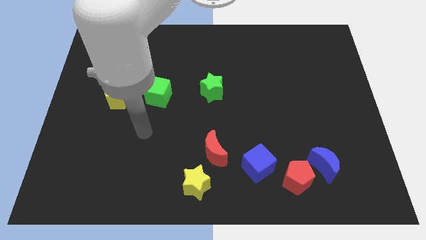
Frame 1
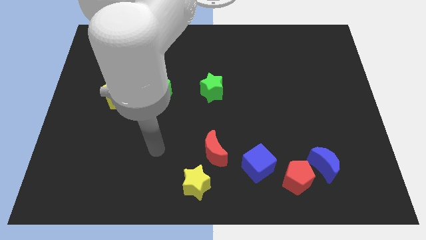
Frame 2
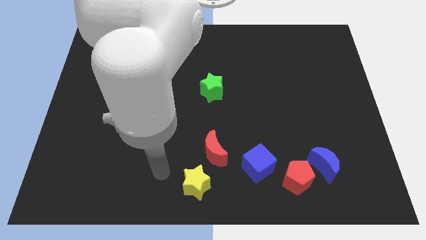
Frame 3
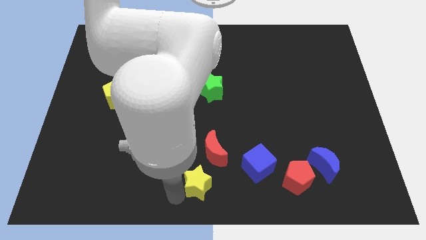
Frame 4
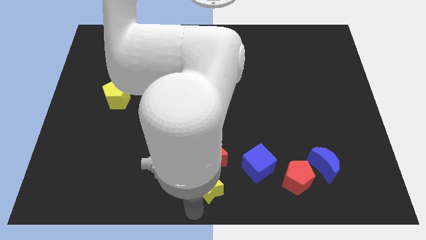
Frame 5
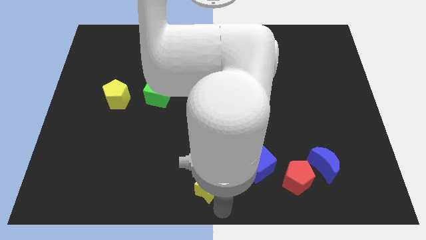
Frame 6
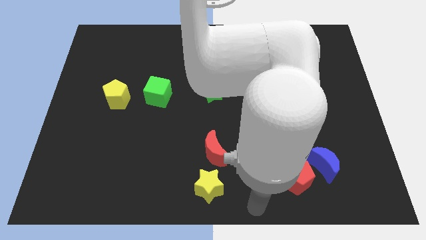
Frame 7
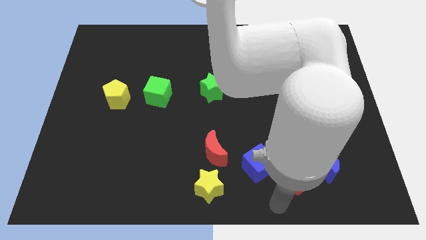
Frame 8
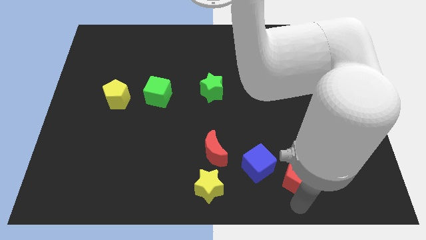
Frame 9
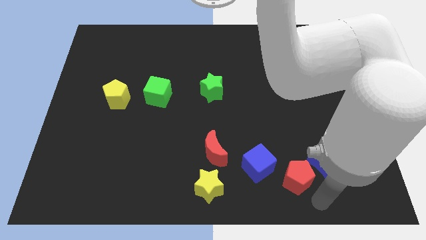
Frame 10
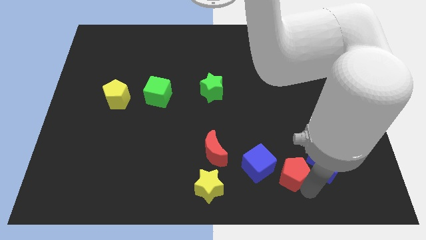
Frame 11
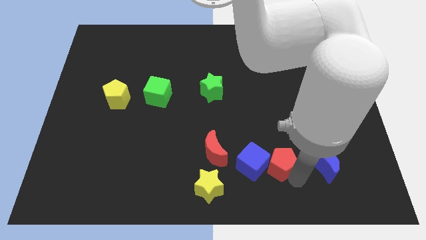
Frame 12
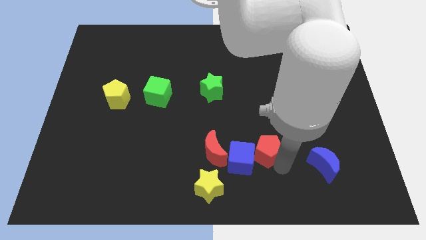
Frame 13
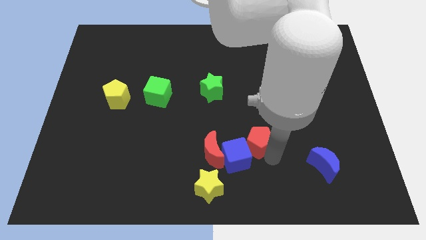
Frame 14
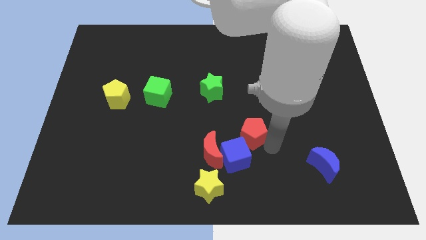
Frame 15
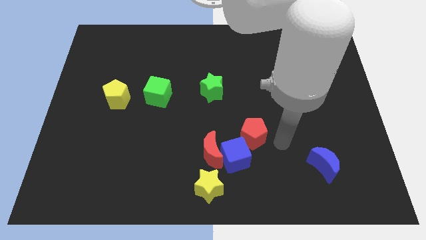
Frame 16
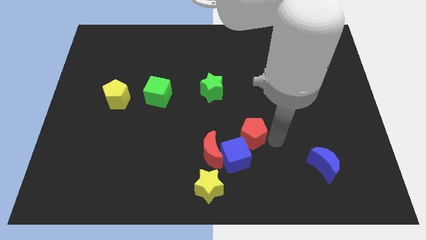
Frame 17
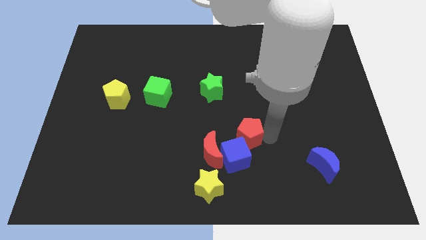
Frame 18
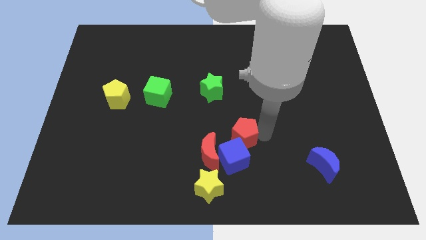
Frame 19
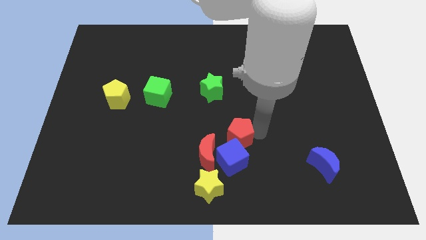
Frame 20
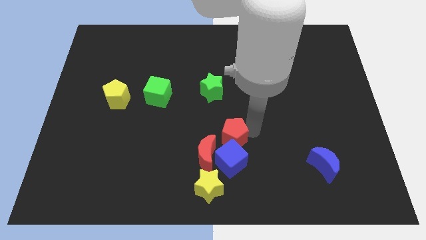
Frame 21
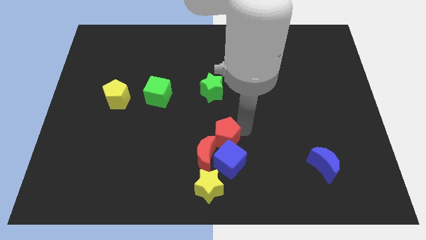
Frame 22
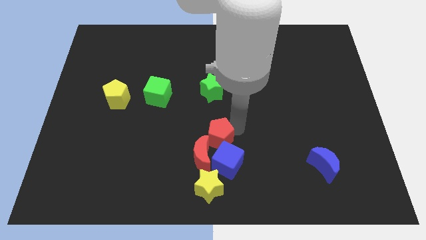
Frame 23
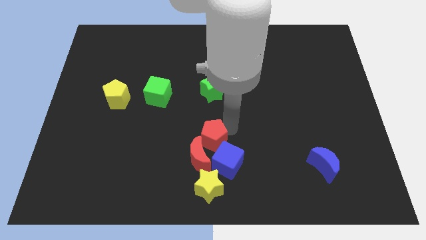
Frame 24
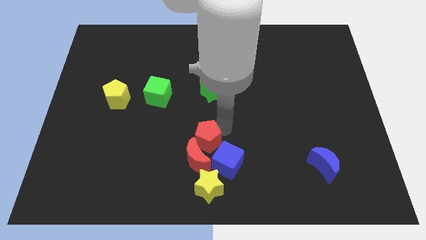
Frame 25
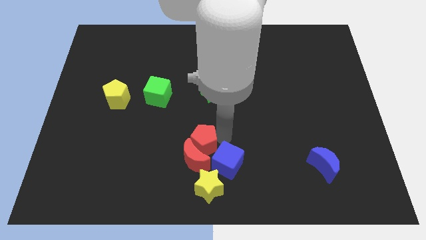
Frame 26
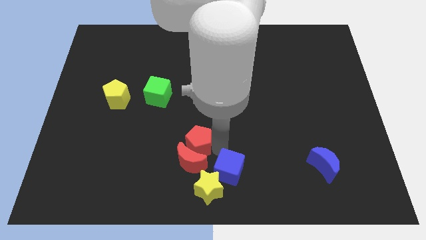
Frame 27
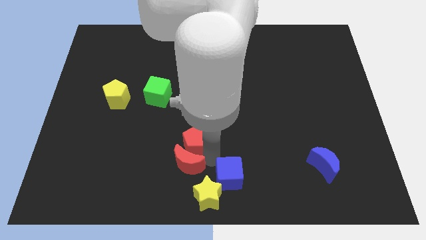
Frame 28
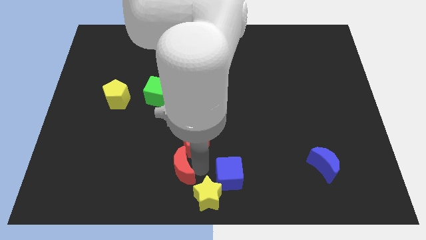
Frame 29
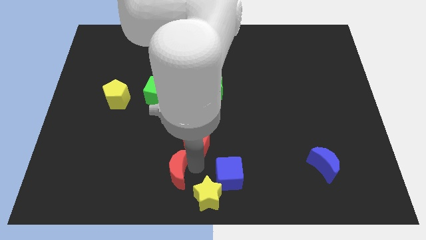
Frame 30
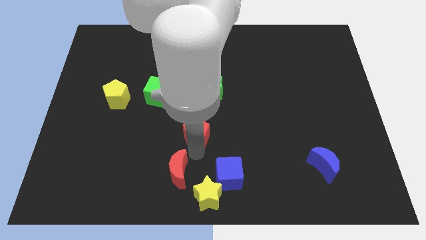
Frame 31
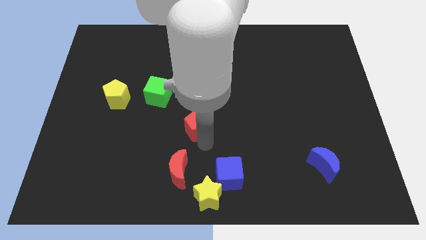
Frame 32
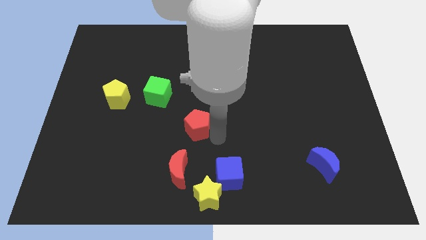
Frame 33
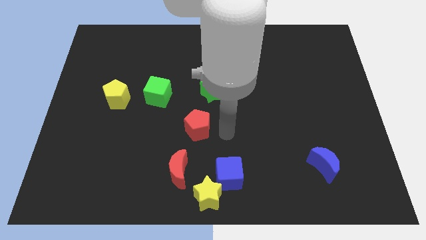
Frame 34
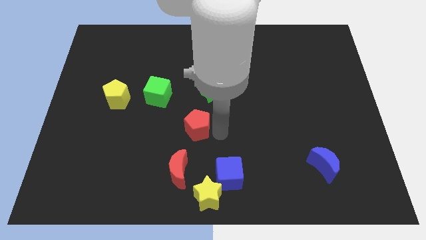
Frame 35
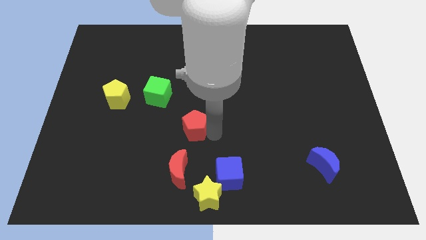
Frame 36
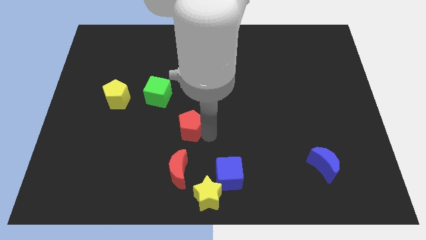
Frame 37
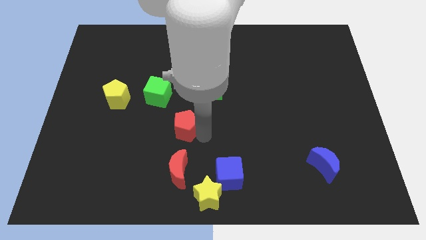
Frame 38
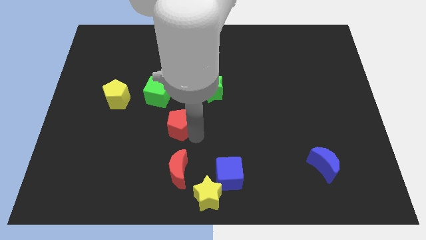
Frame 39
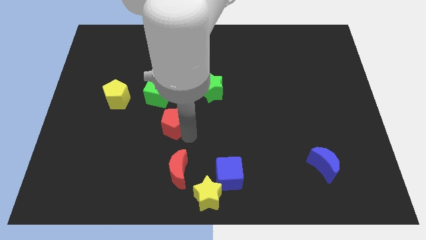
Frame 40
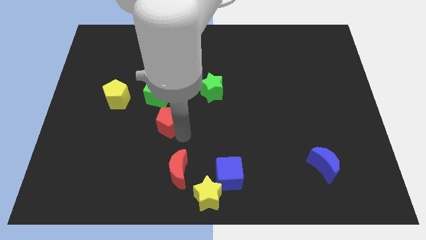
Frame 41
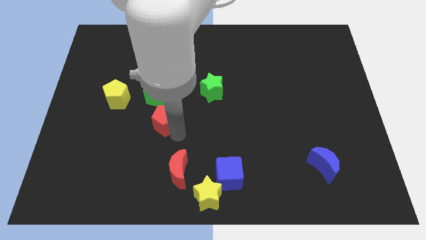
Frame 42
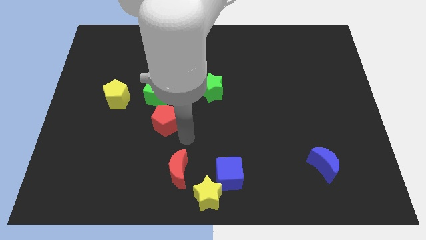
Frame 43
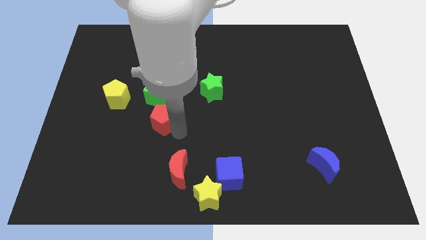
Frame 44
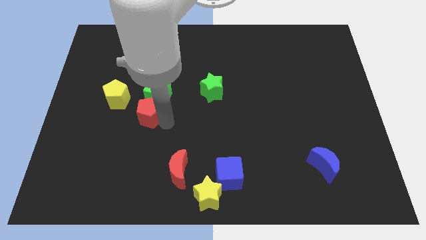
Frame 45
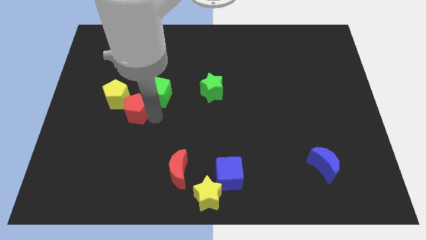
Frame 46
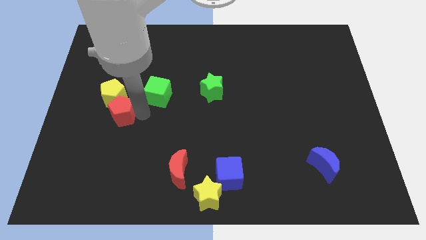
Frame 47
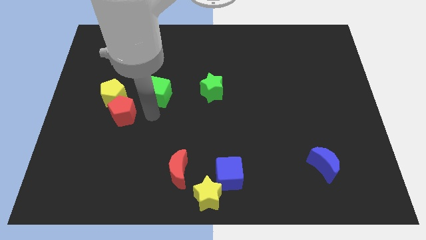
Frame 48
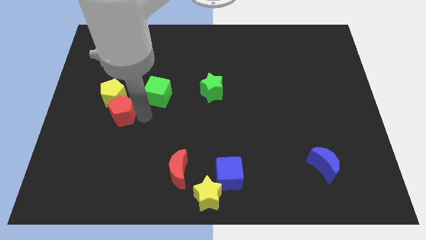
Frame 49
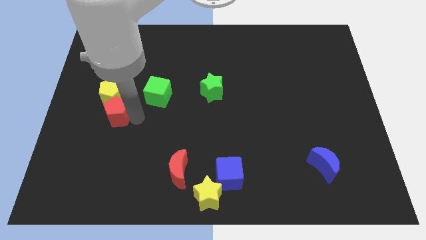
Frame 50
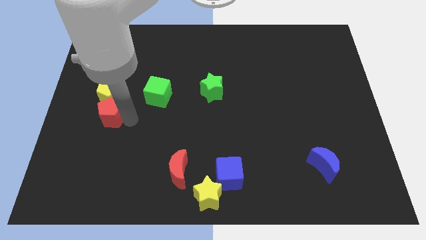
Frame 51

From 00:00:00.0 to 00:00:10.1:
slide the red pentagon to the bottom left of the yellow pentagon

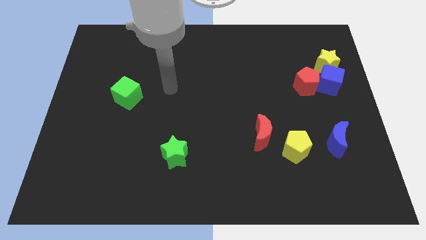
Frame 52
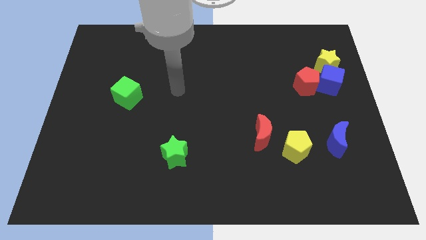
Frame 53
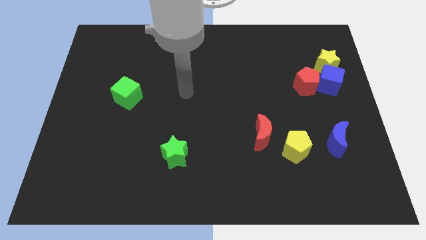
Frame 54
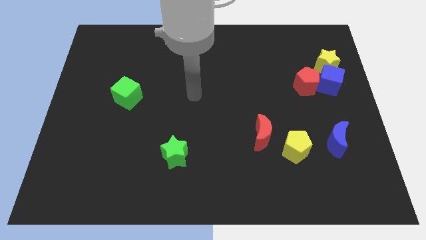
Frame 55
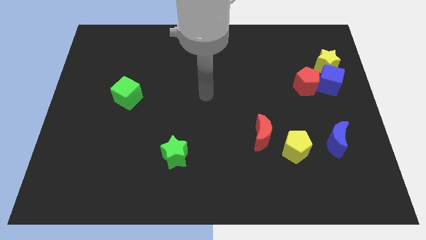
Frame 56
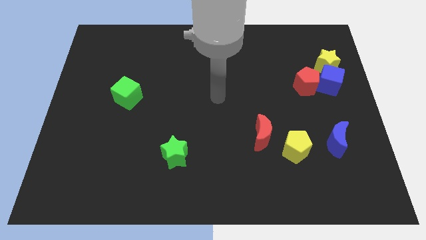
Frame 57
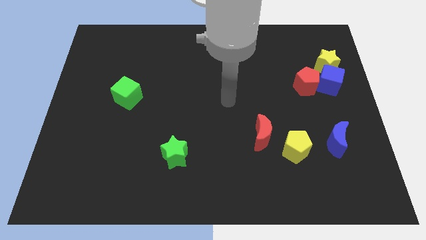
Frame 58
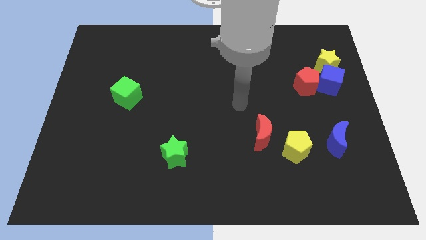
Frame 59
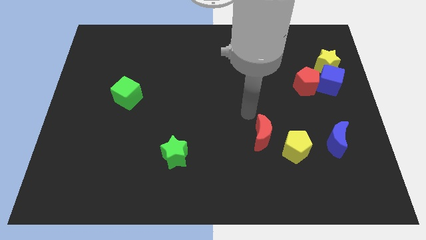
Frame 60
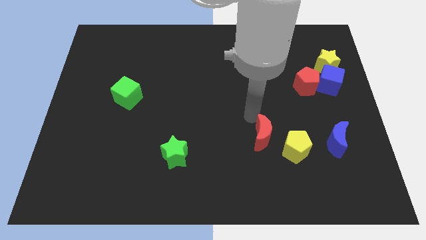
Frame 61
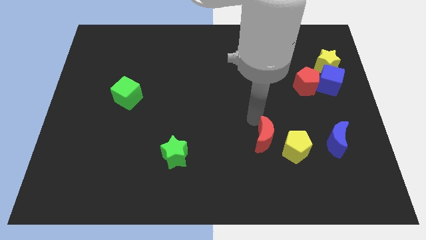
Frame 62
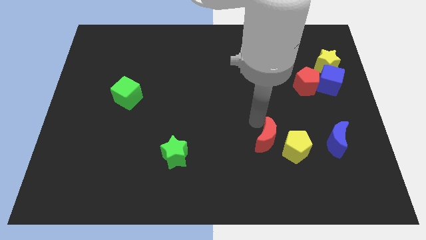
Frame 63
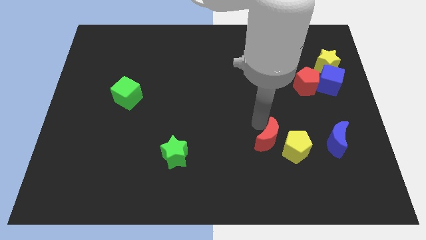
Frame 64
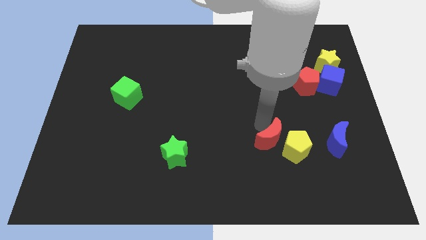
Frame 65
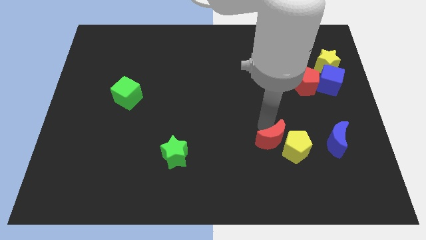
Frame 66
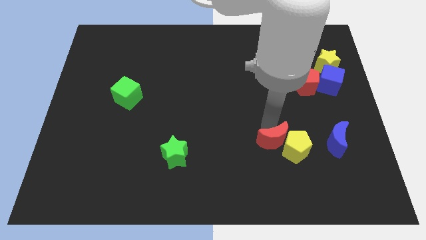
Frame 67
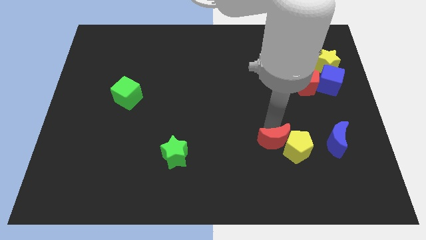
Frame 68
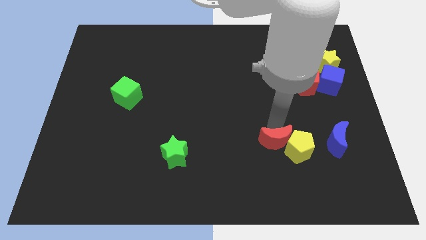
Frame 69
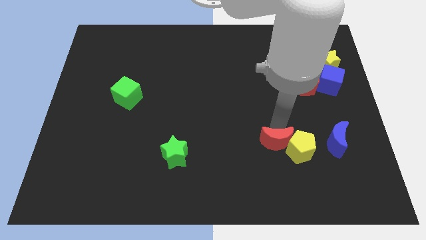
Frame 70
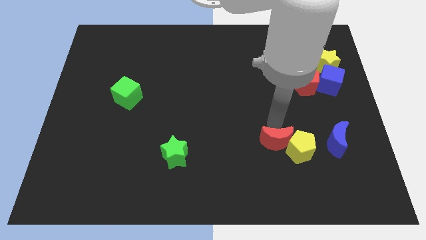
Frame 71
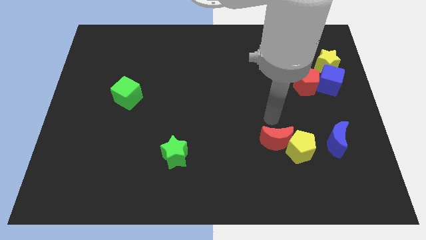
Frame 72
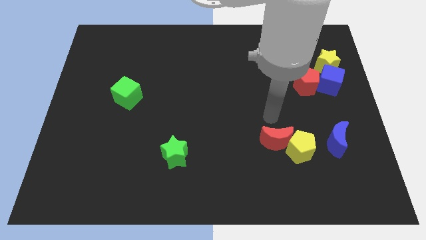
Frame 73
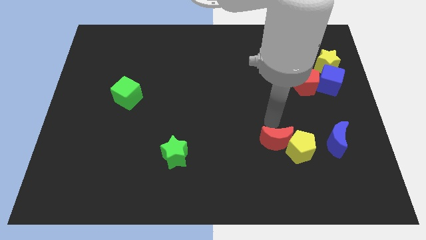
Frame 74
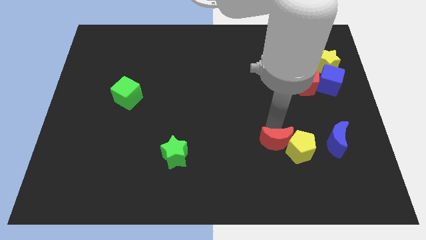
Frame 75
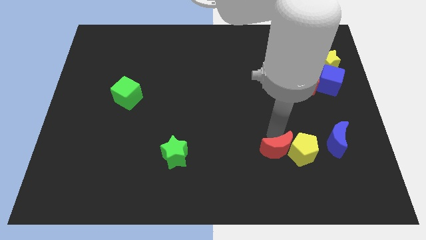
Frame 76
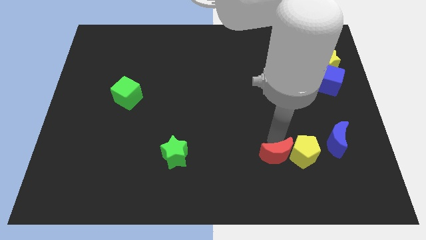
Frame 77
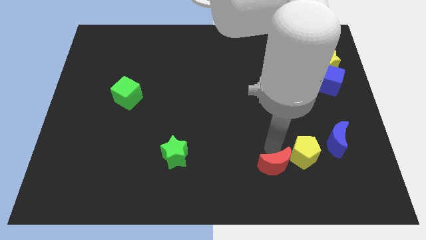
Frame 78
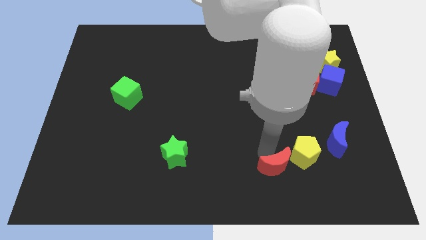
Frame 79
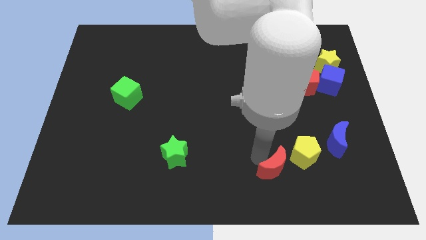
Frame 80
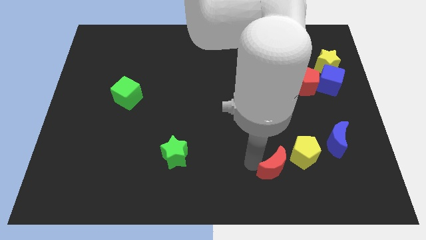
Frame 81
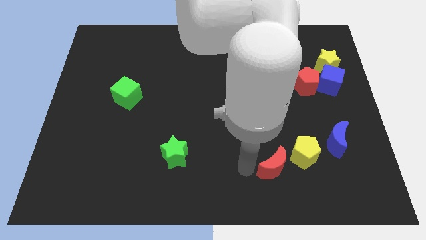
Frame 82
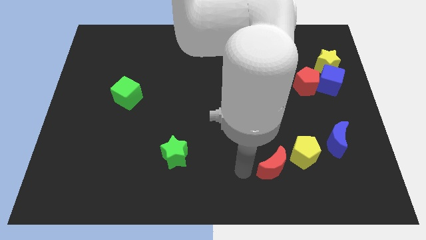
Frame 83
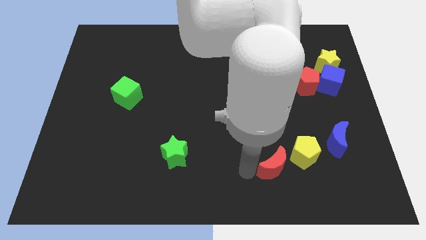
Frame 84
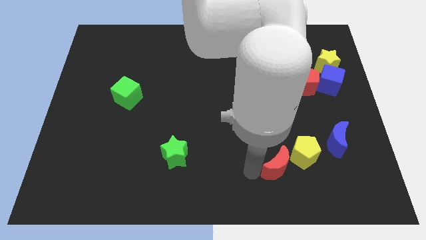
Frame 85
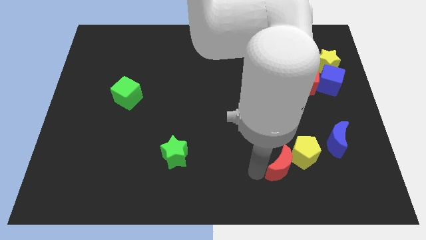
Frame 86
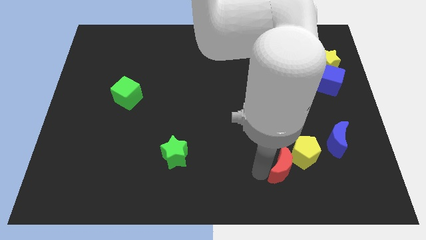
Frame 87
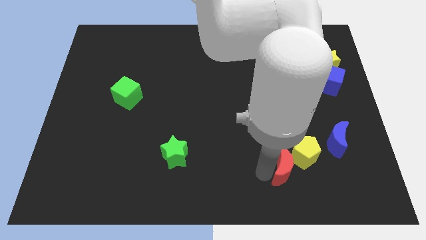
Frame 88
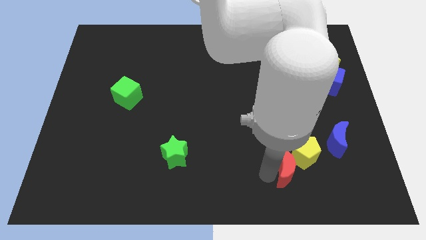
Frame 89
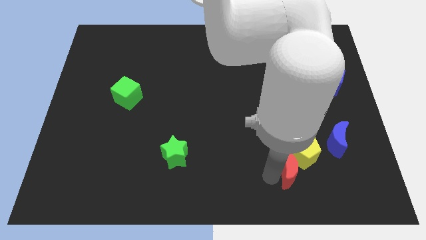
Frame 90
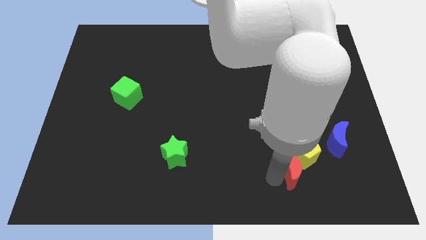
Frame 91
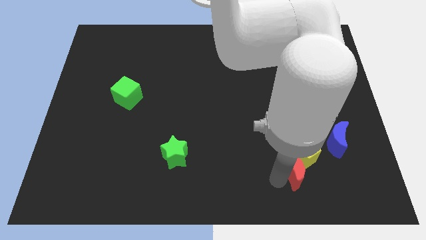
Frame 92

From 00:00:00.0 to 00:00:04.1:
move the red moon to the bottom left side of the blue moon
